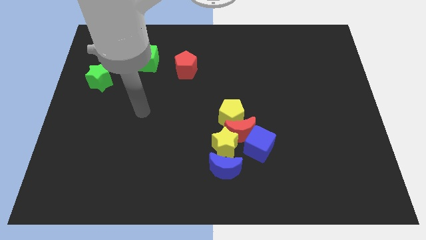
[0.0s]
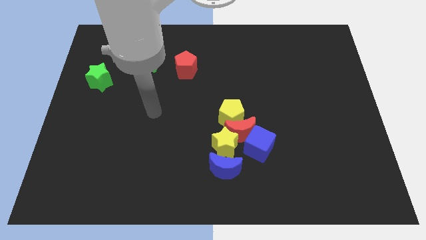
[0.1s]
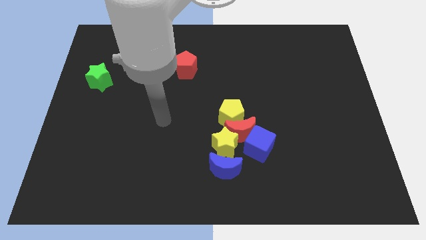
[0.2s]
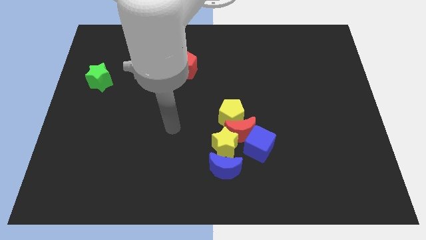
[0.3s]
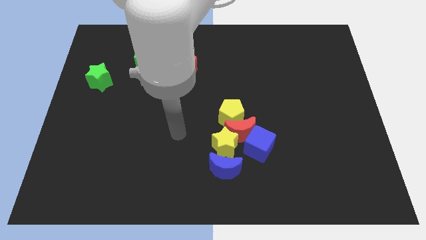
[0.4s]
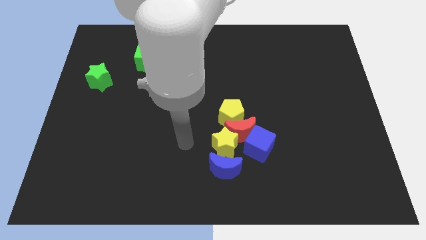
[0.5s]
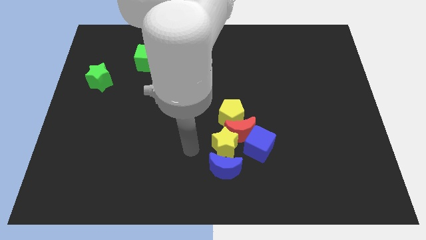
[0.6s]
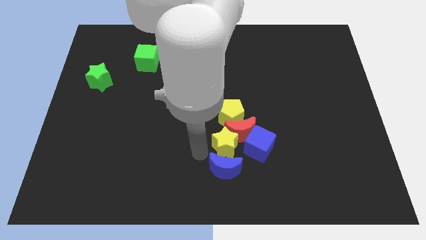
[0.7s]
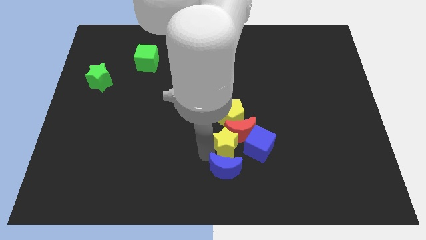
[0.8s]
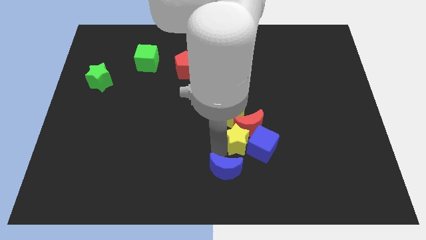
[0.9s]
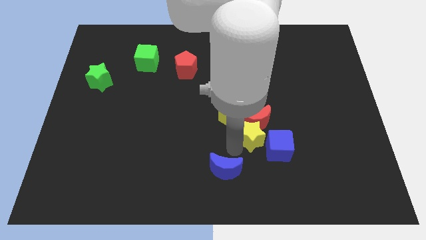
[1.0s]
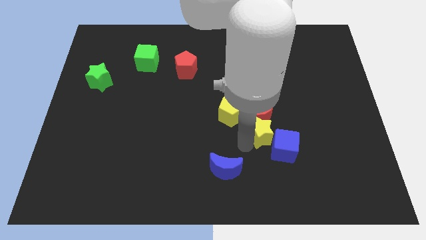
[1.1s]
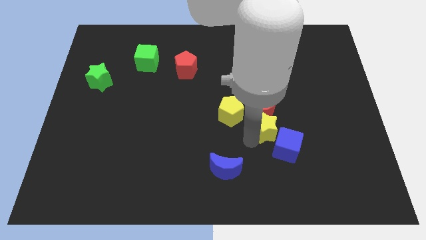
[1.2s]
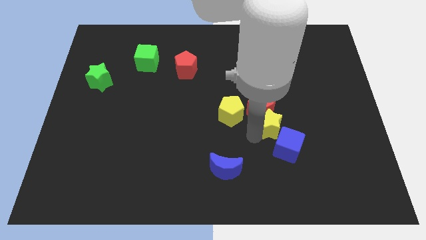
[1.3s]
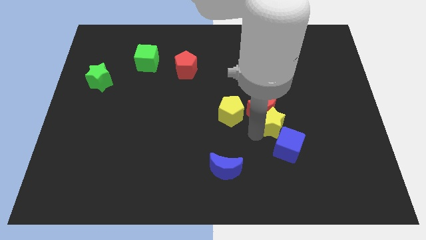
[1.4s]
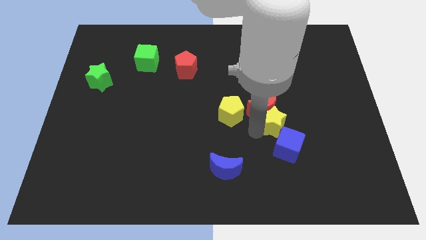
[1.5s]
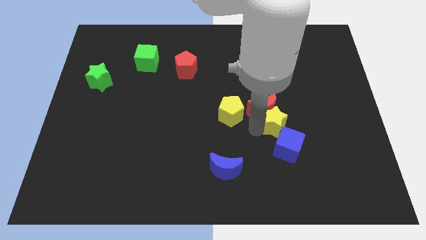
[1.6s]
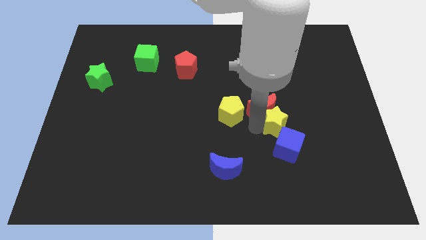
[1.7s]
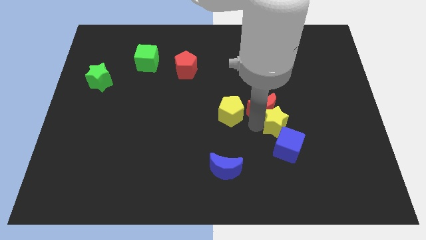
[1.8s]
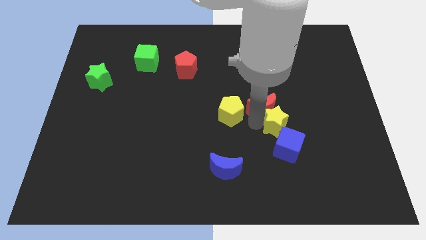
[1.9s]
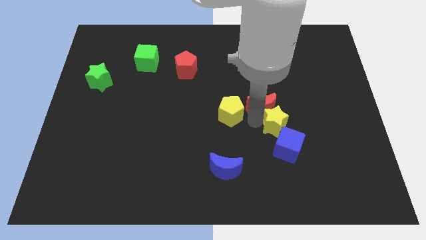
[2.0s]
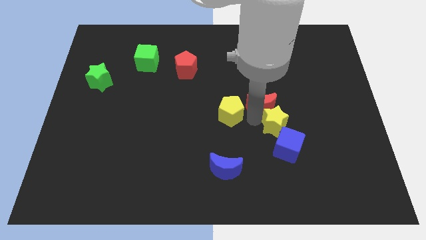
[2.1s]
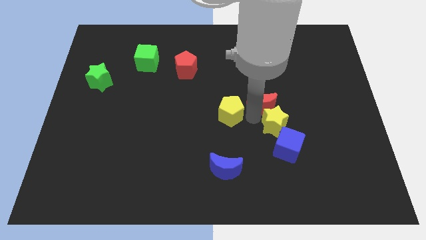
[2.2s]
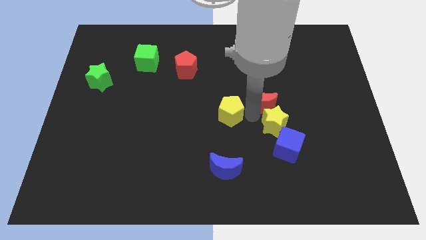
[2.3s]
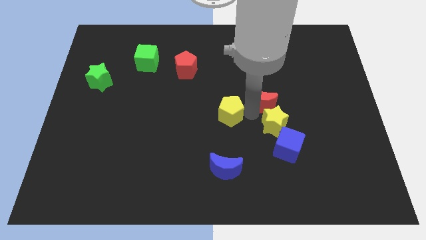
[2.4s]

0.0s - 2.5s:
move the red moon away from the group of blocks

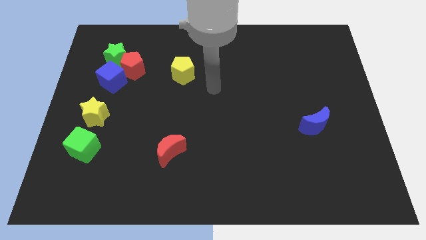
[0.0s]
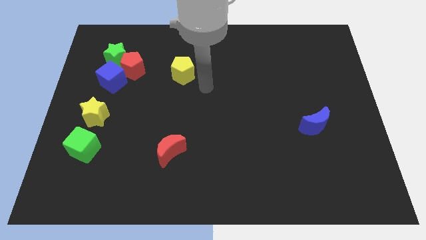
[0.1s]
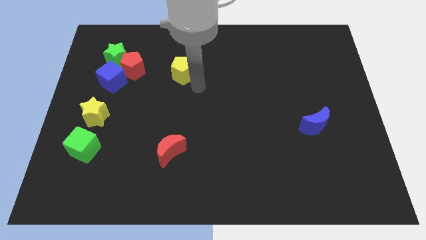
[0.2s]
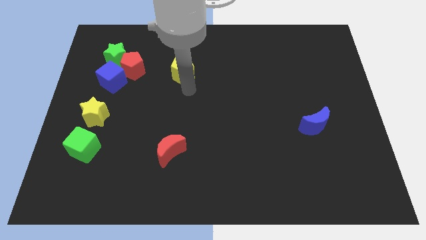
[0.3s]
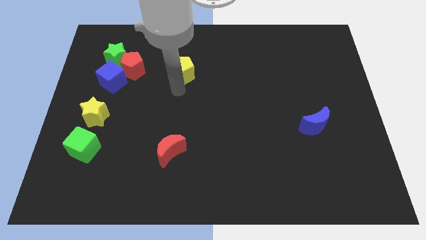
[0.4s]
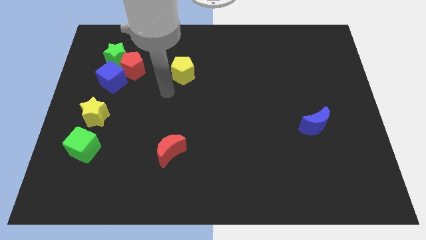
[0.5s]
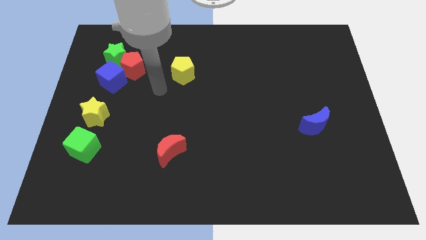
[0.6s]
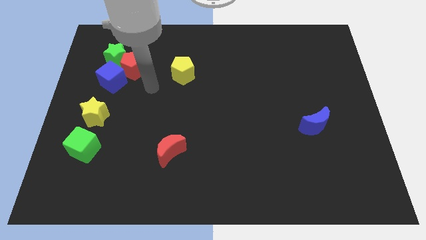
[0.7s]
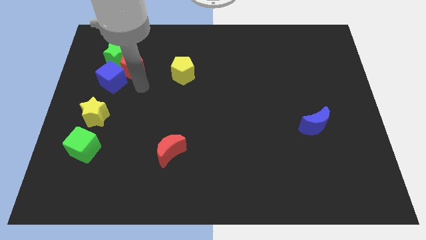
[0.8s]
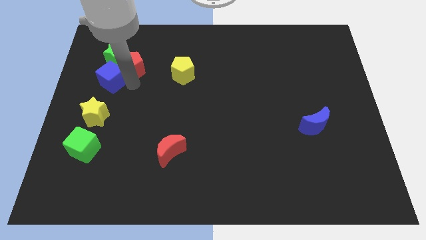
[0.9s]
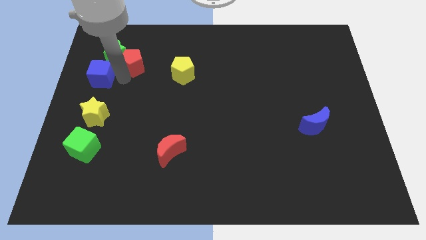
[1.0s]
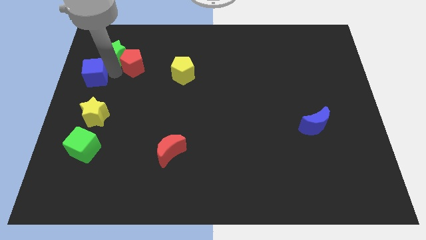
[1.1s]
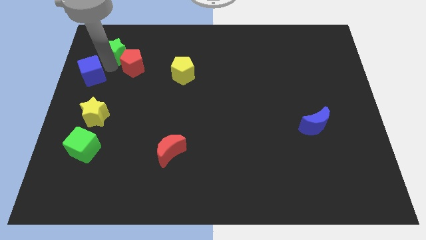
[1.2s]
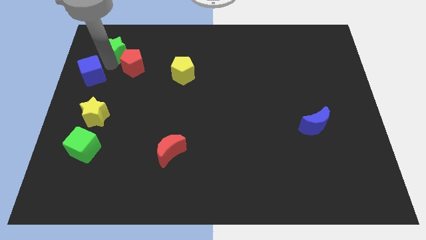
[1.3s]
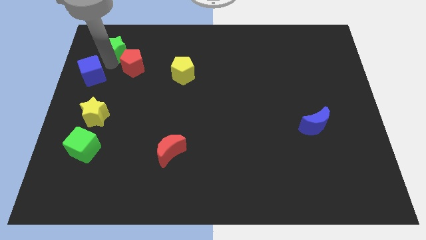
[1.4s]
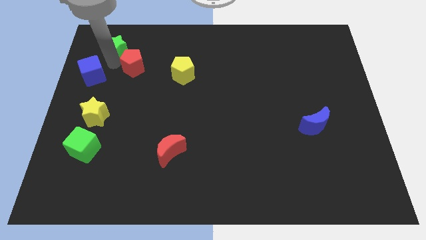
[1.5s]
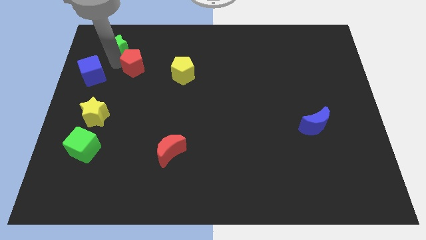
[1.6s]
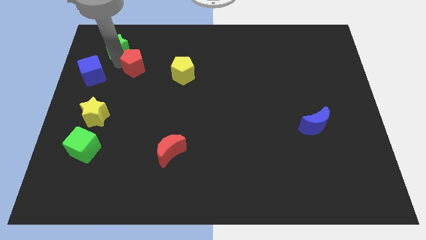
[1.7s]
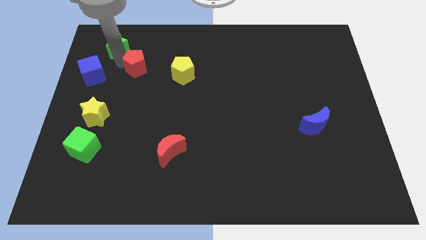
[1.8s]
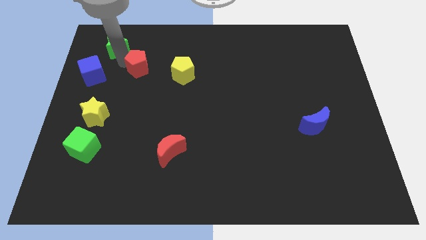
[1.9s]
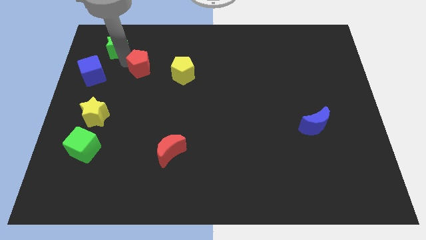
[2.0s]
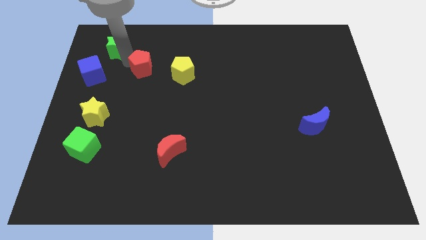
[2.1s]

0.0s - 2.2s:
move the red pentagon away from the green star and blue cube

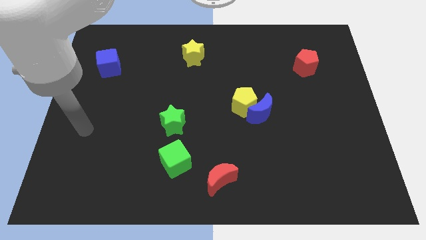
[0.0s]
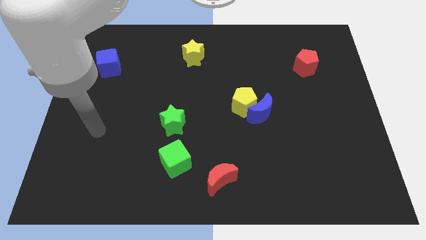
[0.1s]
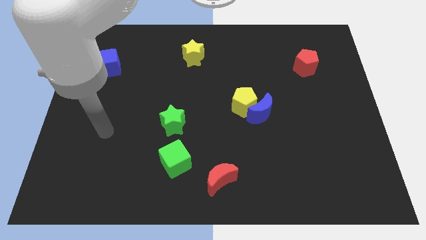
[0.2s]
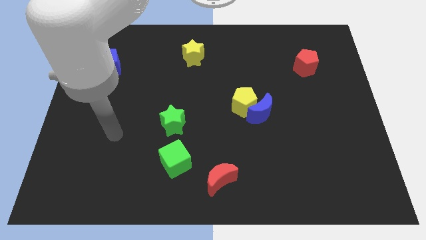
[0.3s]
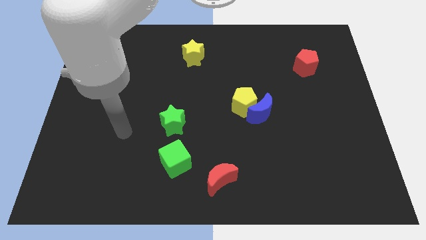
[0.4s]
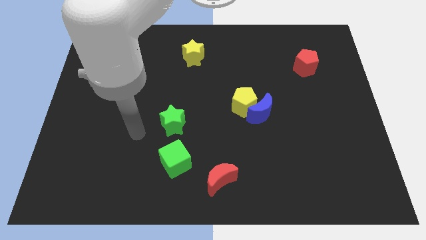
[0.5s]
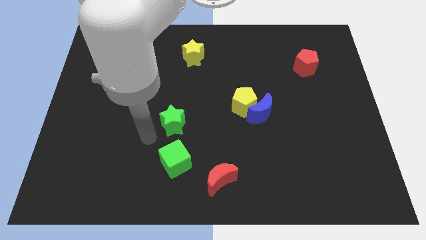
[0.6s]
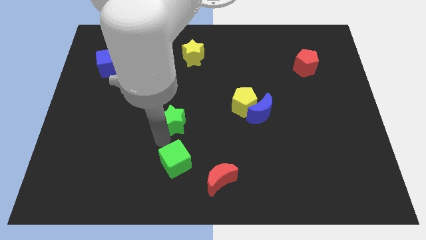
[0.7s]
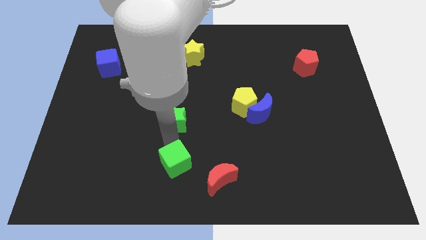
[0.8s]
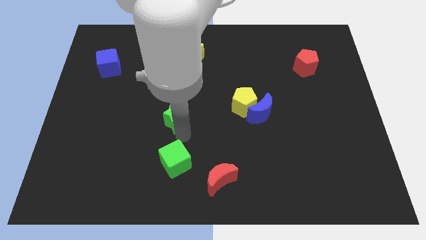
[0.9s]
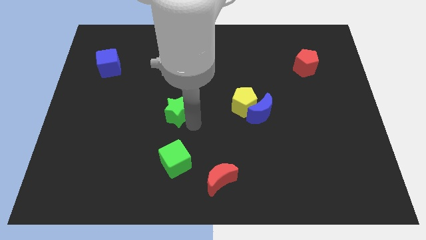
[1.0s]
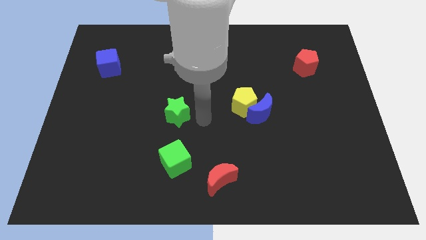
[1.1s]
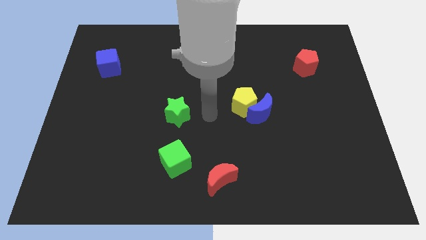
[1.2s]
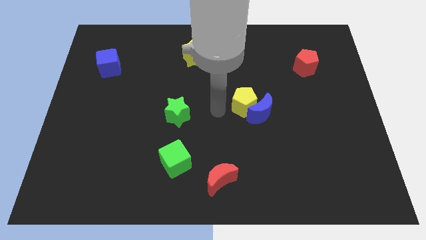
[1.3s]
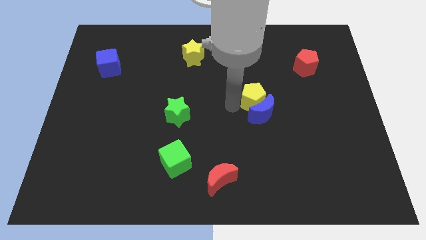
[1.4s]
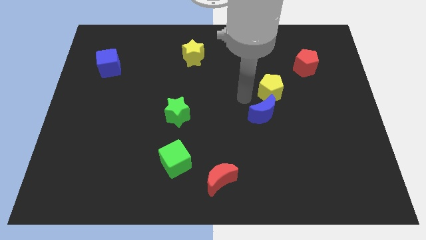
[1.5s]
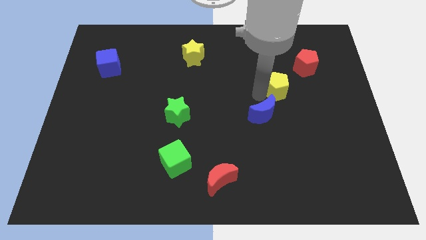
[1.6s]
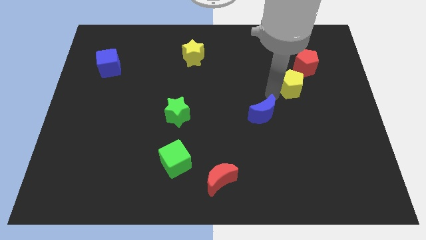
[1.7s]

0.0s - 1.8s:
move the blue moon away from the yellow pentagon

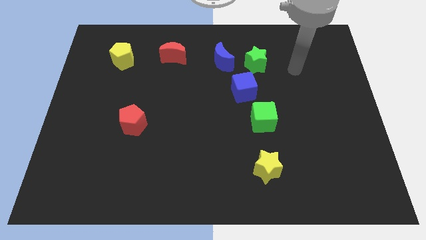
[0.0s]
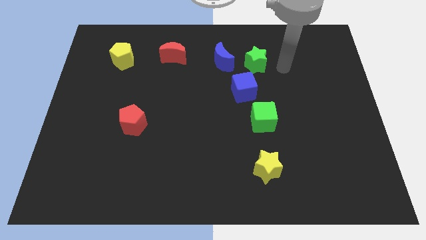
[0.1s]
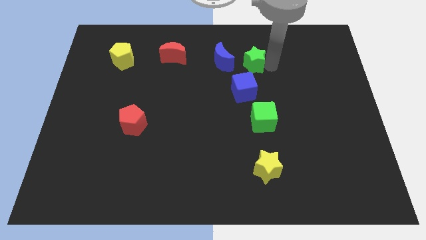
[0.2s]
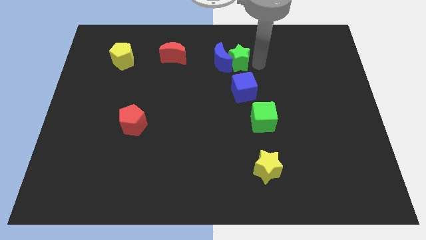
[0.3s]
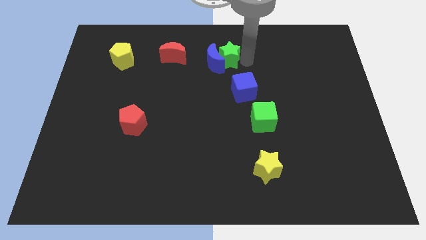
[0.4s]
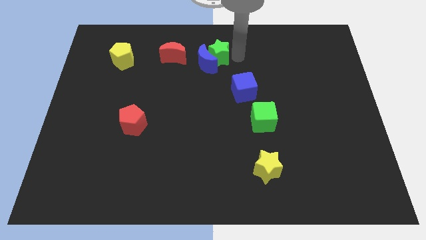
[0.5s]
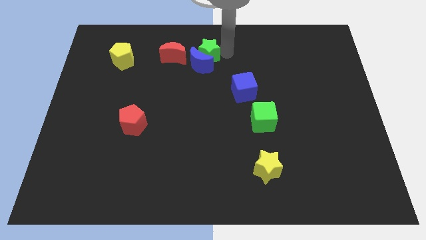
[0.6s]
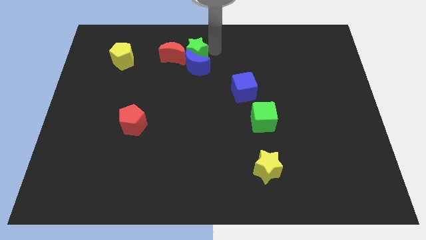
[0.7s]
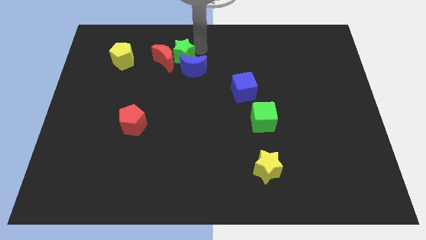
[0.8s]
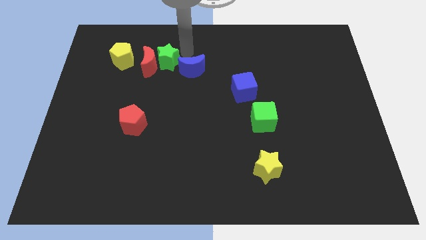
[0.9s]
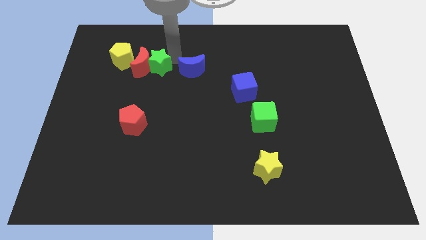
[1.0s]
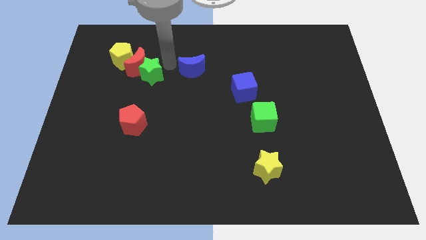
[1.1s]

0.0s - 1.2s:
separate the blue moon from the green star

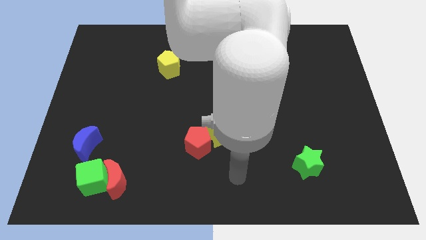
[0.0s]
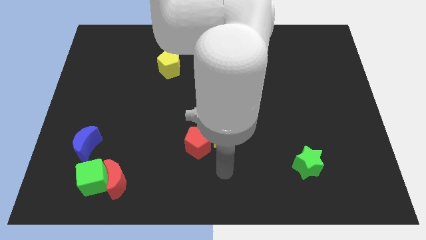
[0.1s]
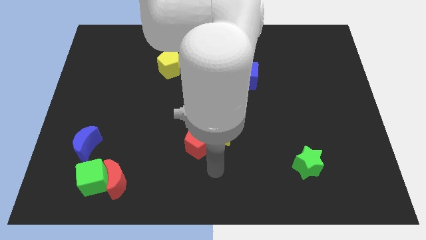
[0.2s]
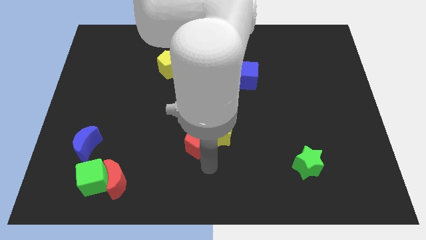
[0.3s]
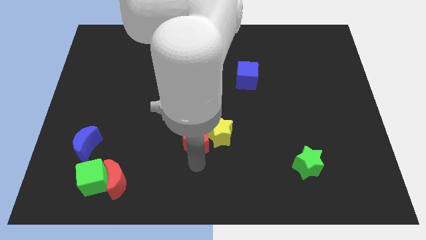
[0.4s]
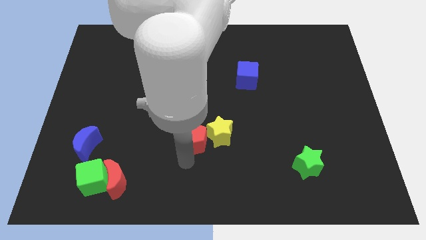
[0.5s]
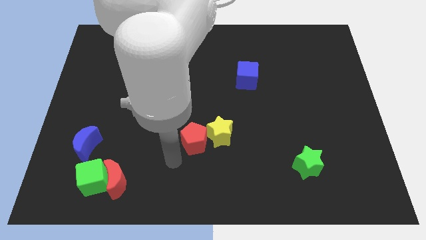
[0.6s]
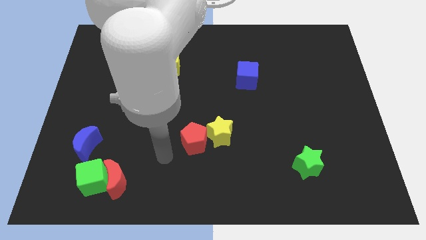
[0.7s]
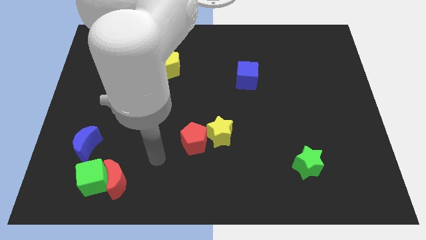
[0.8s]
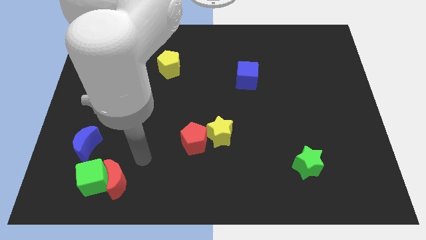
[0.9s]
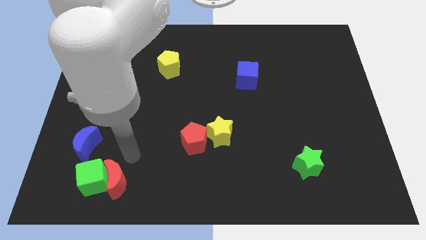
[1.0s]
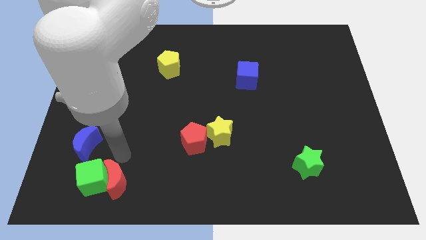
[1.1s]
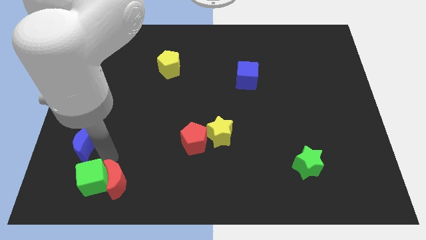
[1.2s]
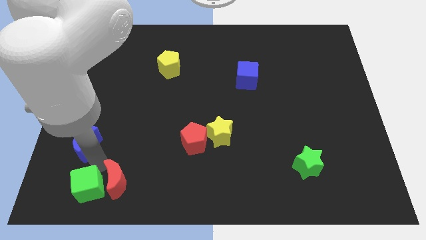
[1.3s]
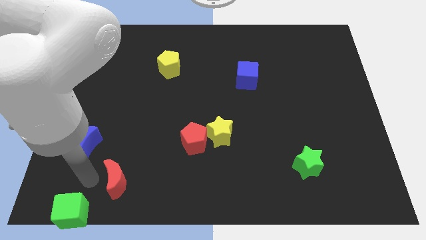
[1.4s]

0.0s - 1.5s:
separate the red moon from the green cube
